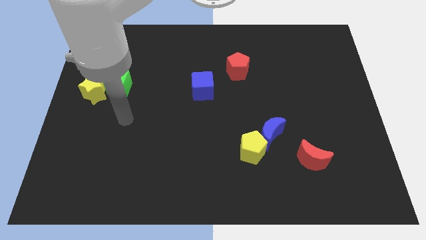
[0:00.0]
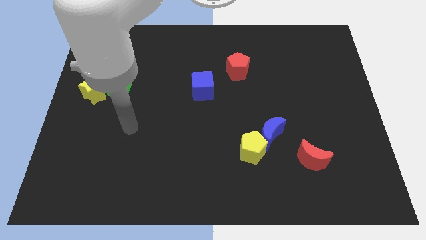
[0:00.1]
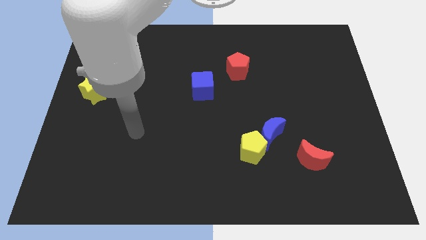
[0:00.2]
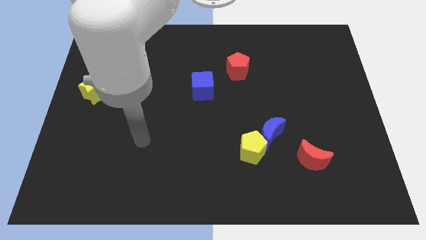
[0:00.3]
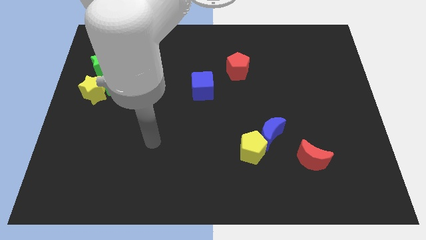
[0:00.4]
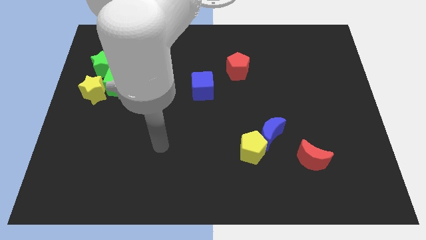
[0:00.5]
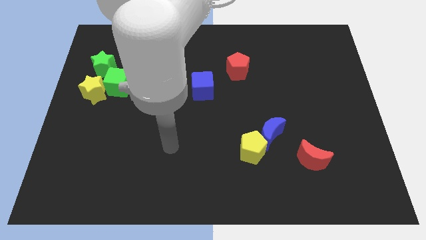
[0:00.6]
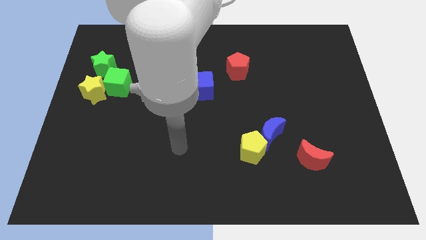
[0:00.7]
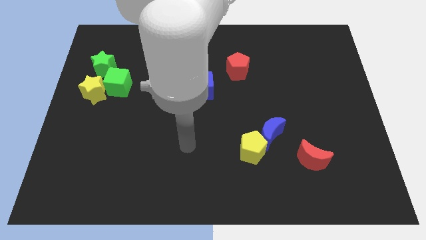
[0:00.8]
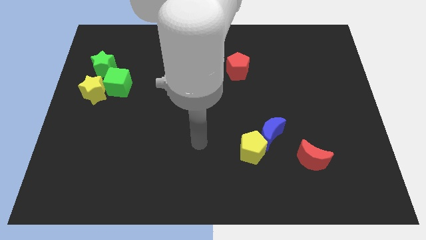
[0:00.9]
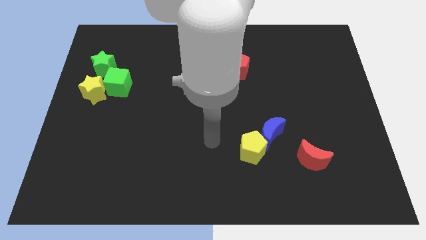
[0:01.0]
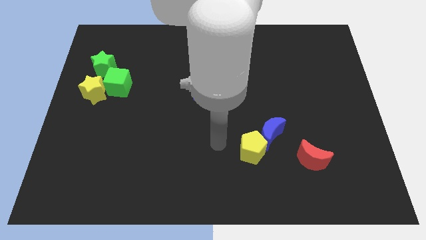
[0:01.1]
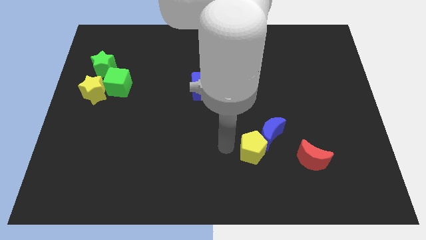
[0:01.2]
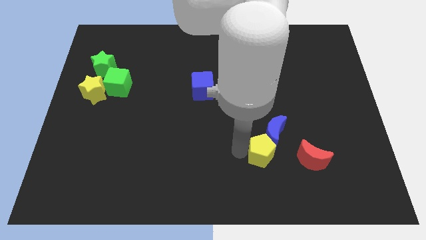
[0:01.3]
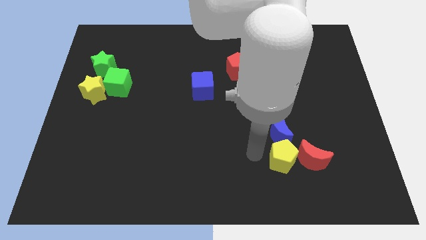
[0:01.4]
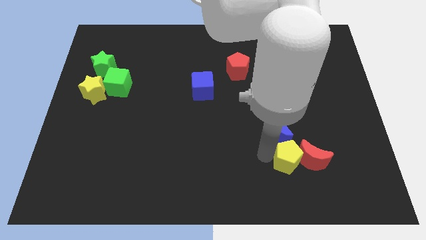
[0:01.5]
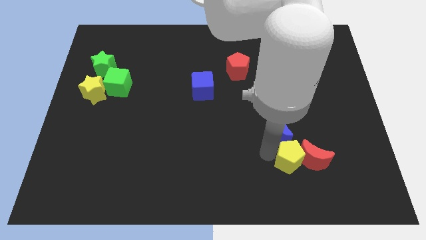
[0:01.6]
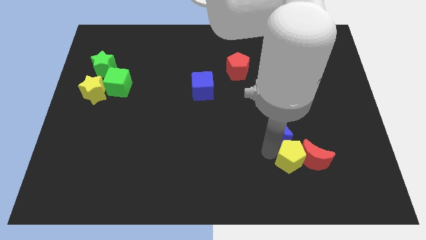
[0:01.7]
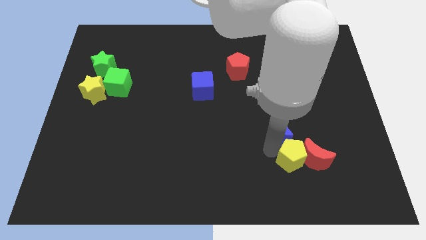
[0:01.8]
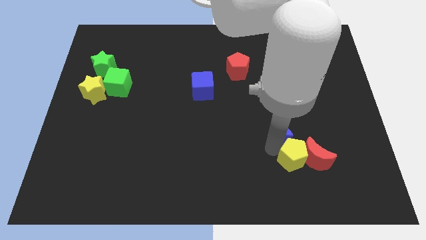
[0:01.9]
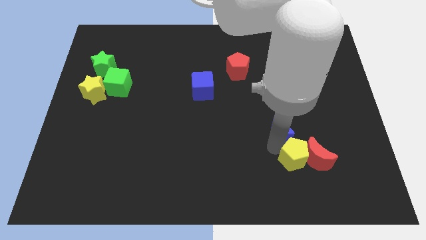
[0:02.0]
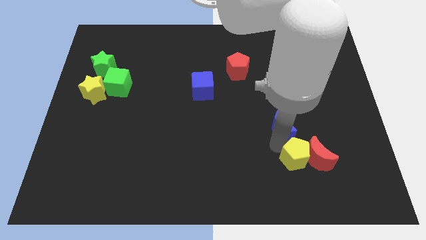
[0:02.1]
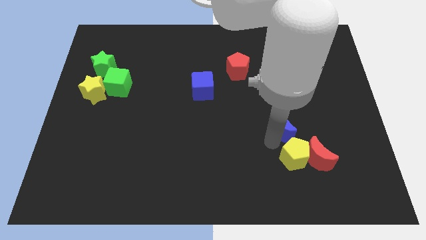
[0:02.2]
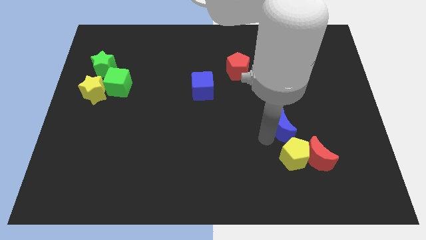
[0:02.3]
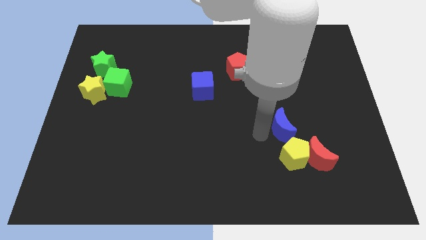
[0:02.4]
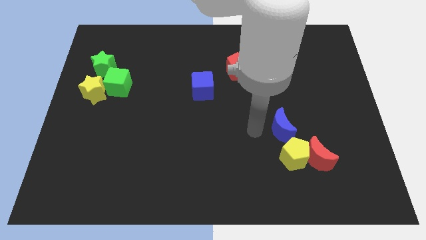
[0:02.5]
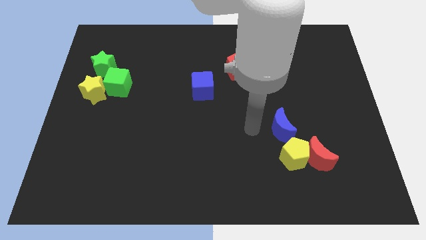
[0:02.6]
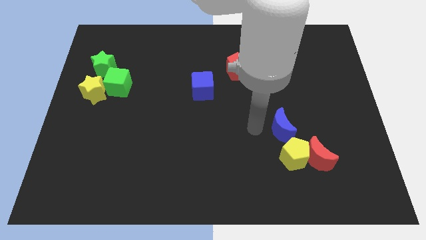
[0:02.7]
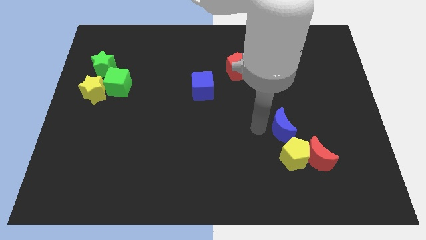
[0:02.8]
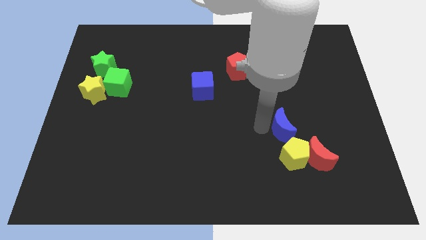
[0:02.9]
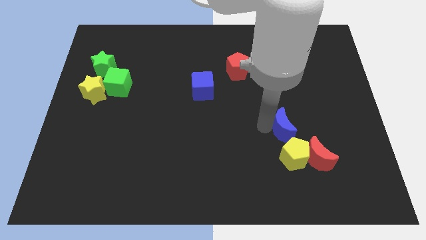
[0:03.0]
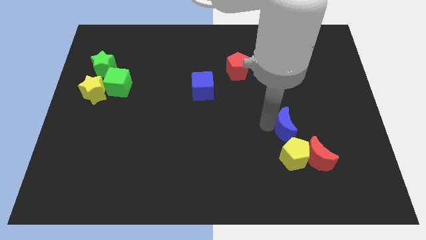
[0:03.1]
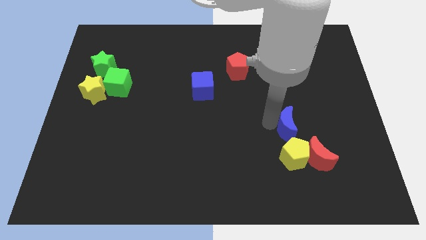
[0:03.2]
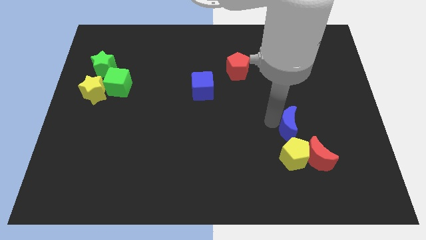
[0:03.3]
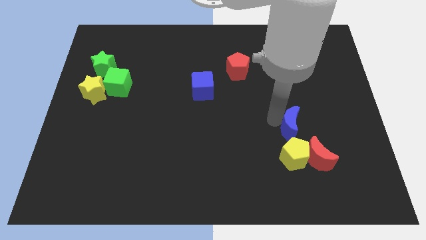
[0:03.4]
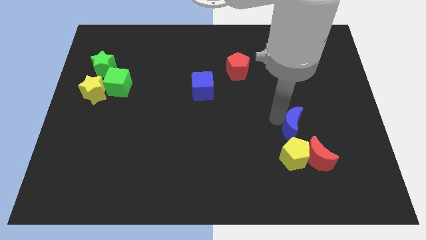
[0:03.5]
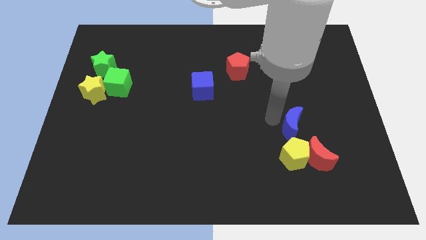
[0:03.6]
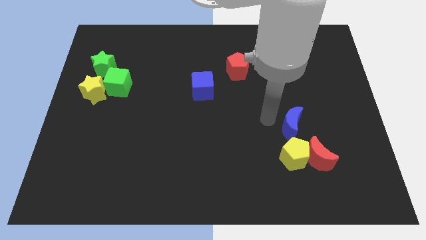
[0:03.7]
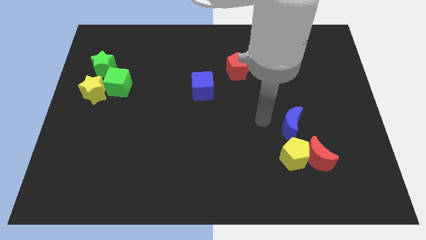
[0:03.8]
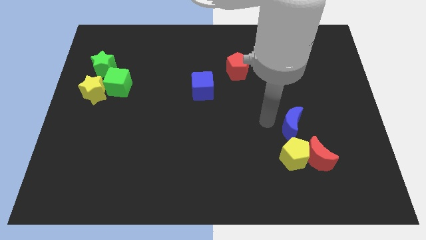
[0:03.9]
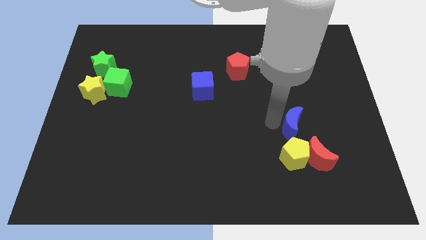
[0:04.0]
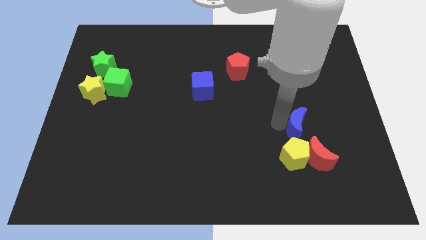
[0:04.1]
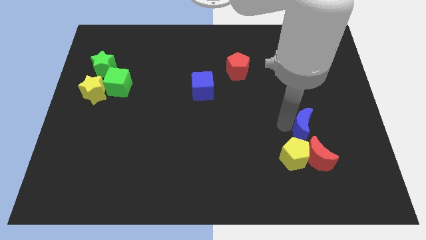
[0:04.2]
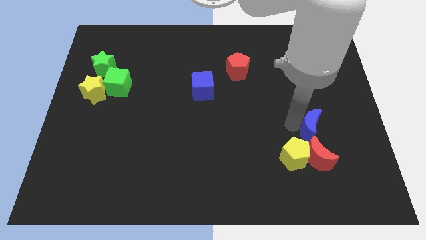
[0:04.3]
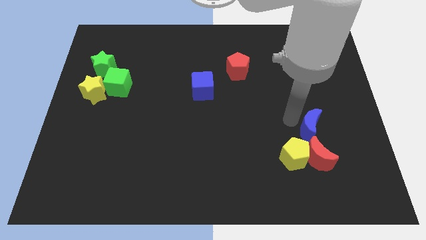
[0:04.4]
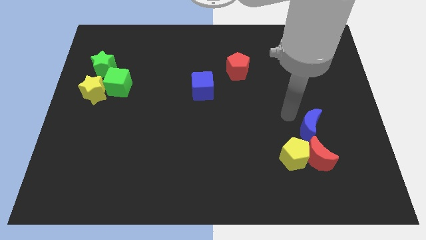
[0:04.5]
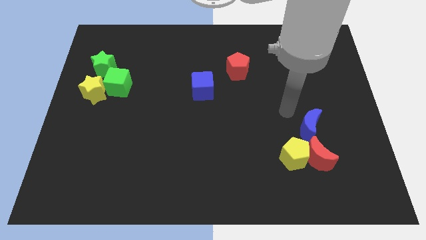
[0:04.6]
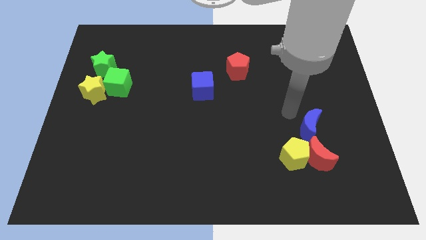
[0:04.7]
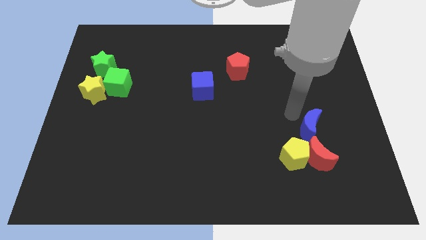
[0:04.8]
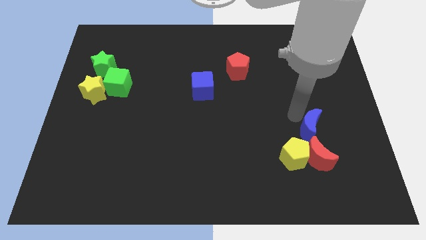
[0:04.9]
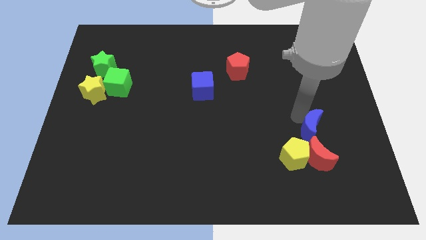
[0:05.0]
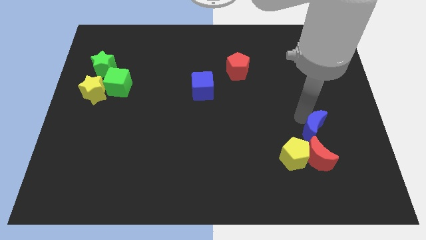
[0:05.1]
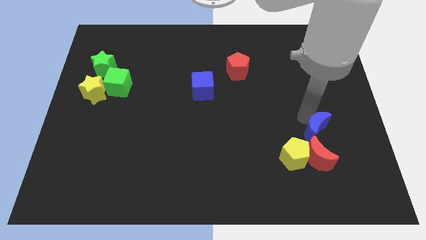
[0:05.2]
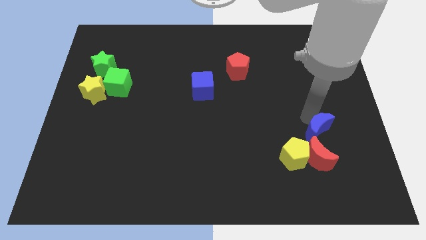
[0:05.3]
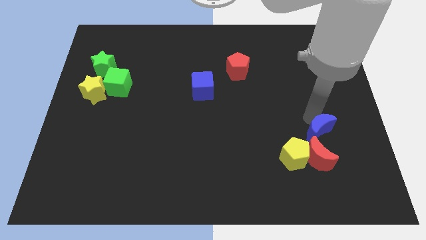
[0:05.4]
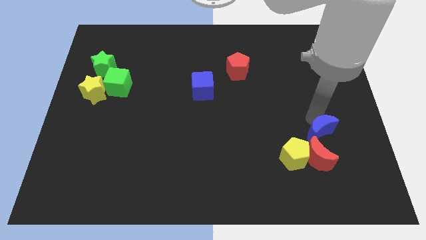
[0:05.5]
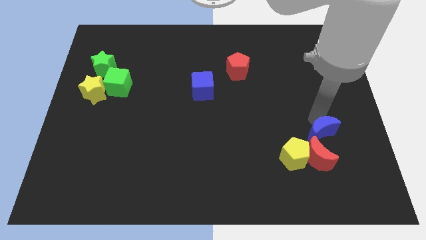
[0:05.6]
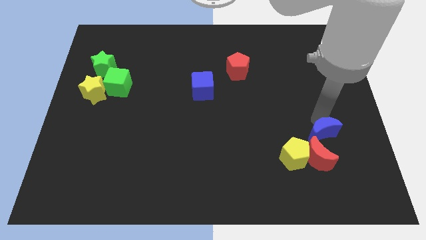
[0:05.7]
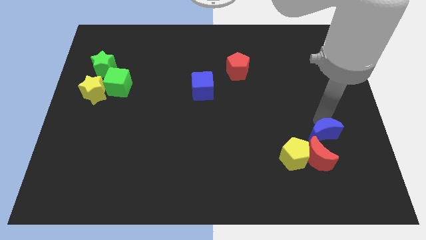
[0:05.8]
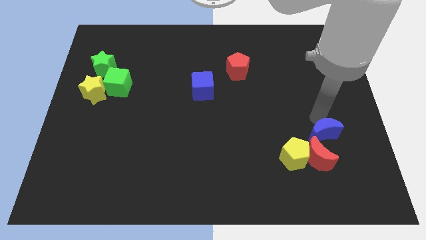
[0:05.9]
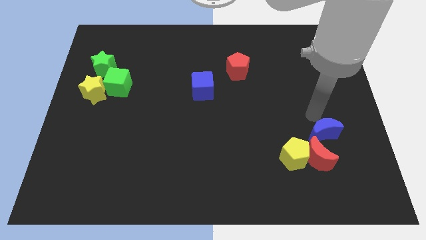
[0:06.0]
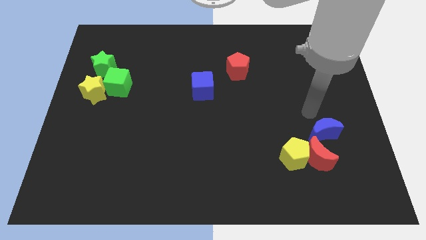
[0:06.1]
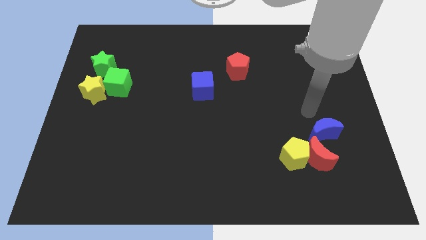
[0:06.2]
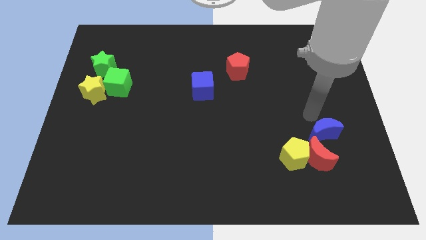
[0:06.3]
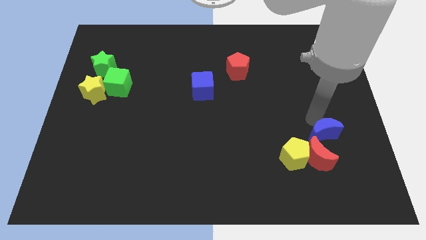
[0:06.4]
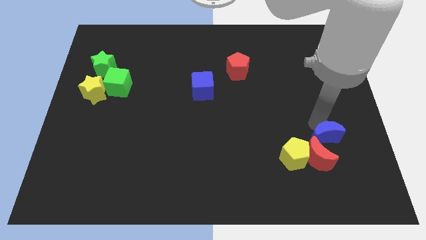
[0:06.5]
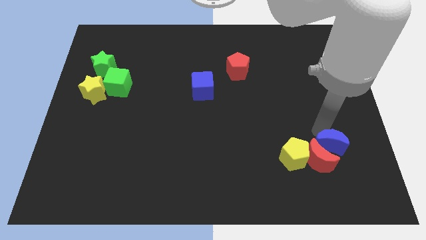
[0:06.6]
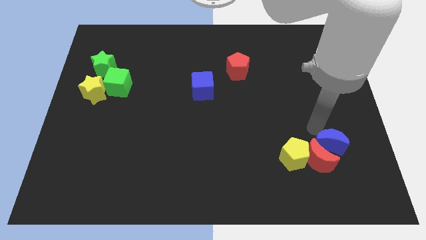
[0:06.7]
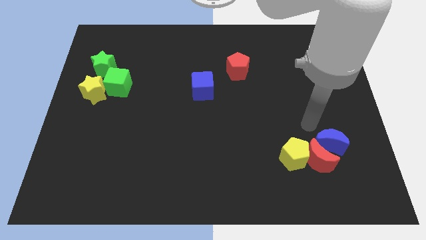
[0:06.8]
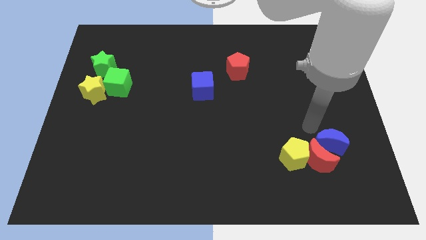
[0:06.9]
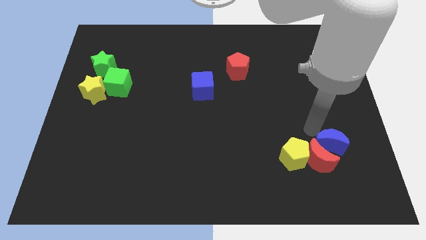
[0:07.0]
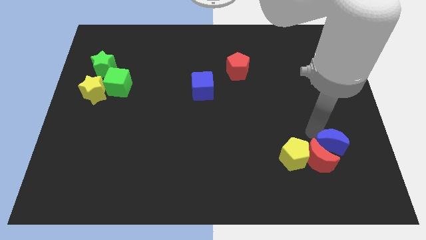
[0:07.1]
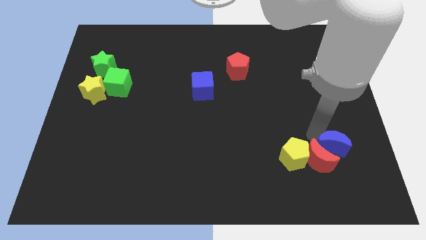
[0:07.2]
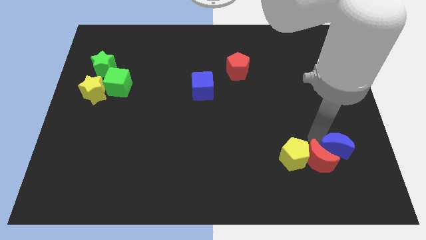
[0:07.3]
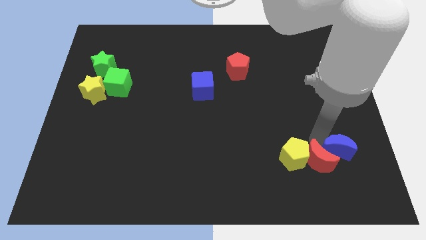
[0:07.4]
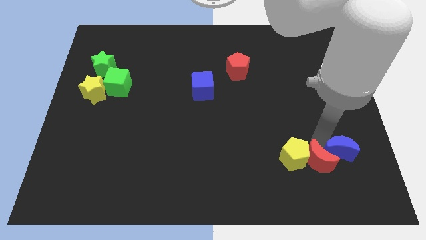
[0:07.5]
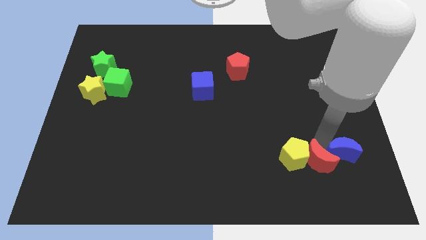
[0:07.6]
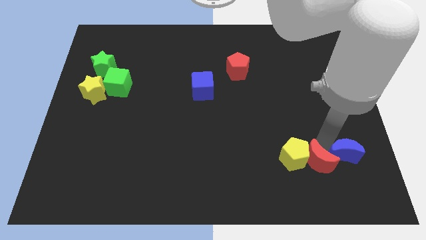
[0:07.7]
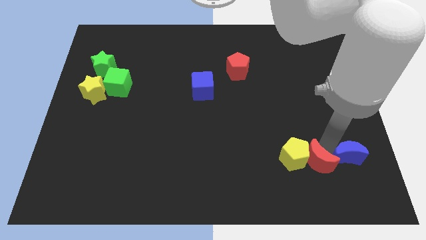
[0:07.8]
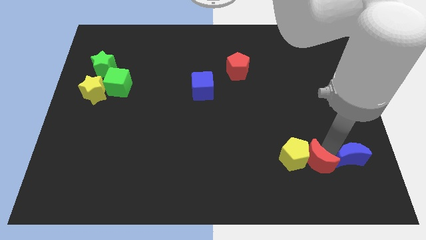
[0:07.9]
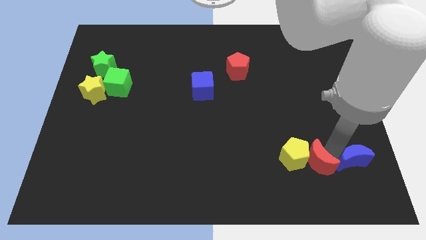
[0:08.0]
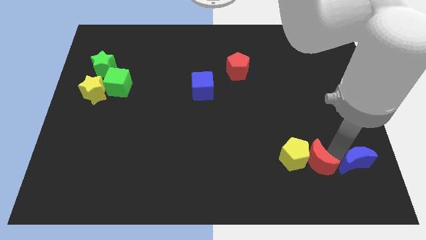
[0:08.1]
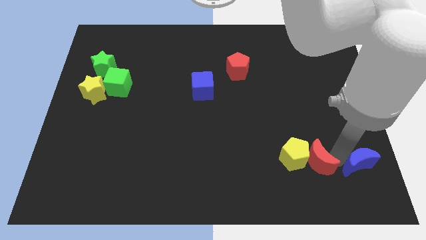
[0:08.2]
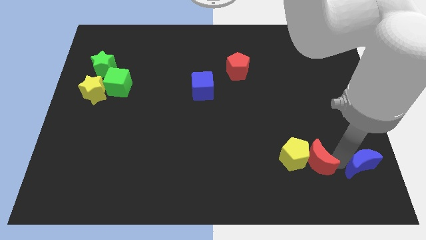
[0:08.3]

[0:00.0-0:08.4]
put the blue moon to the bottom right of the board
